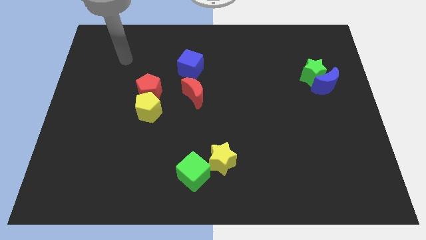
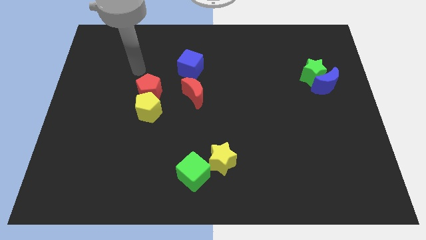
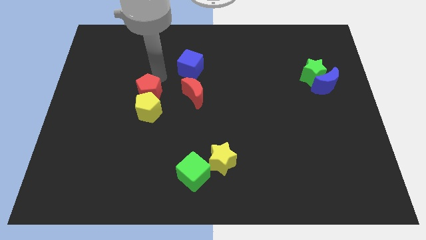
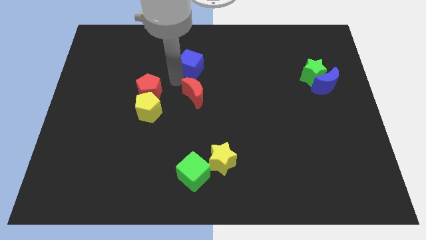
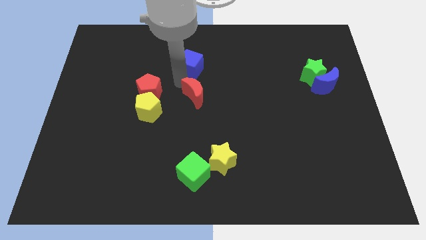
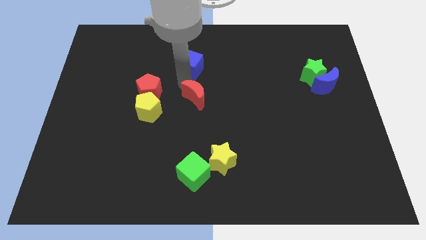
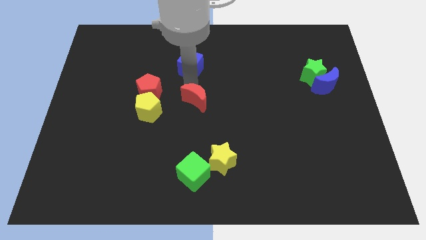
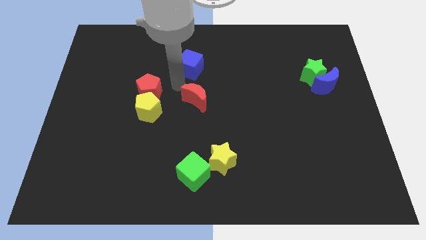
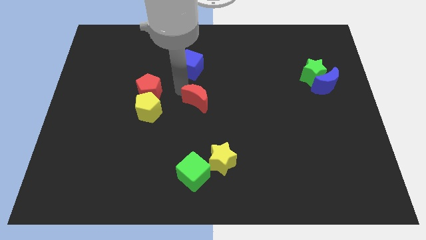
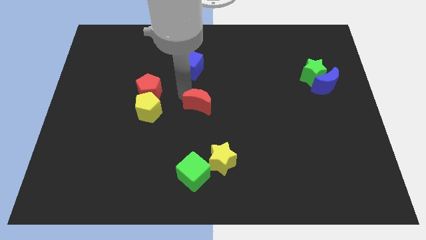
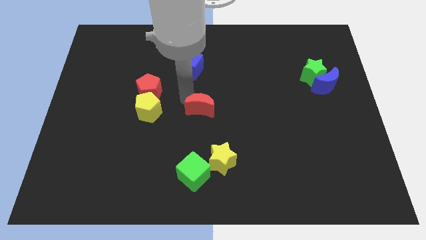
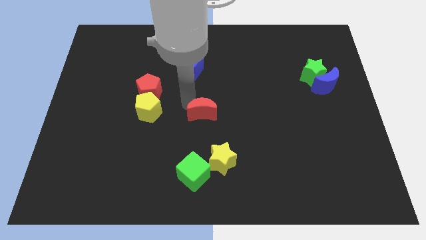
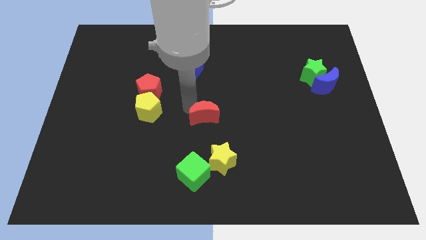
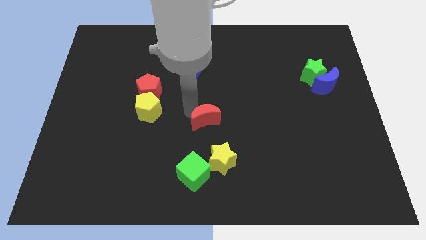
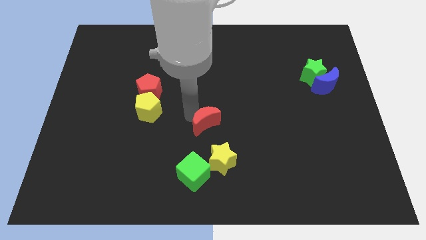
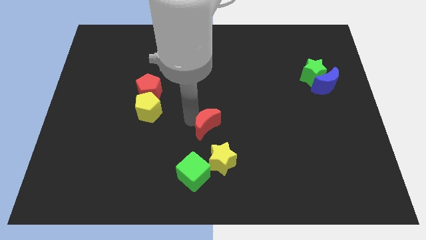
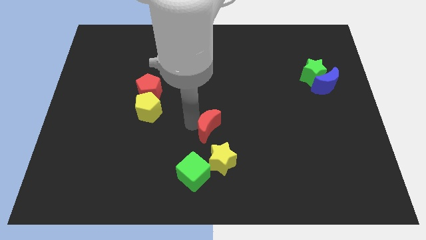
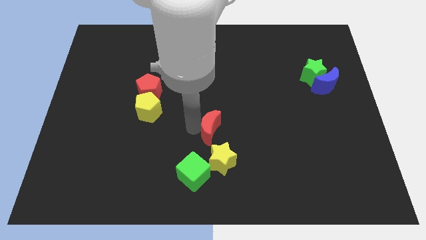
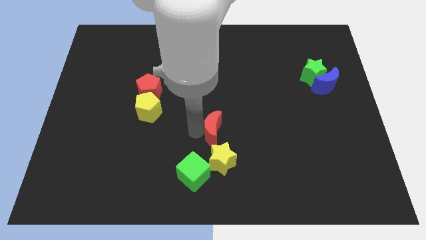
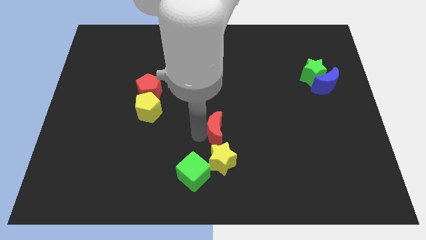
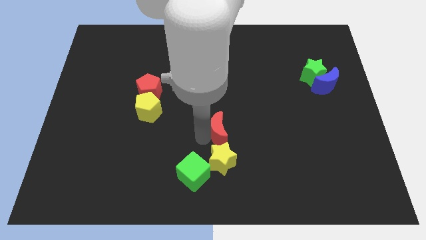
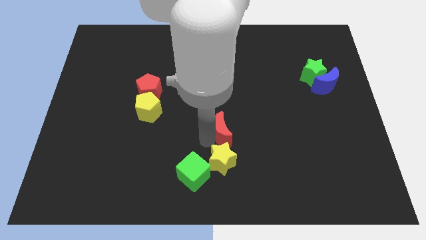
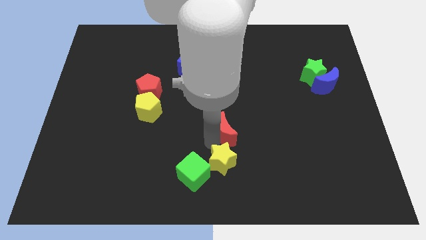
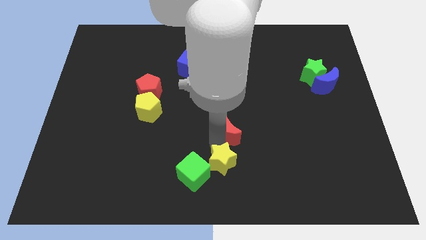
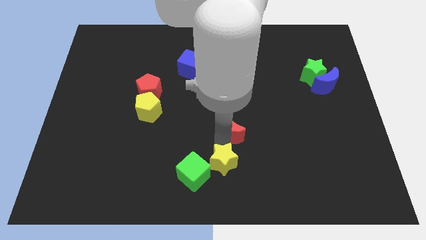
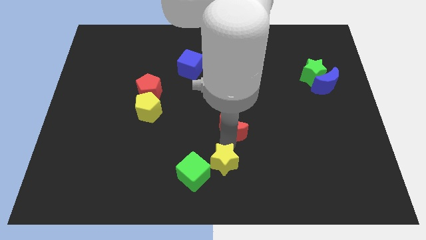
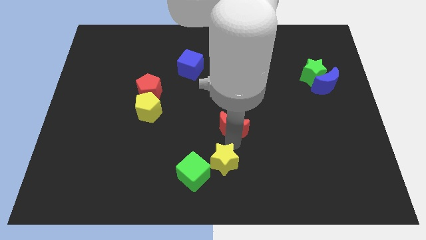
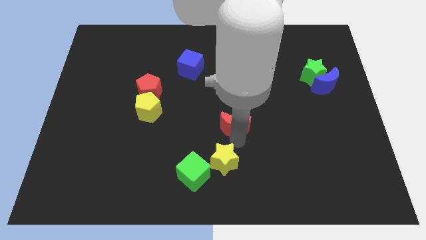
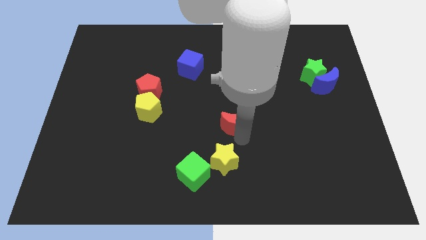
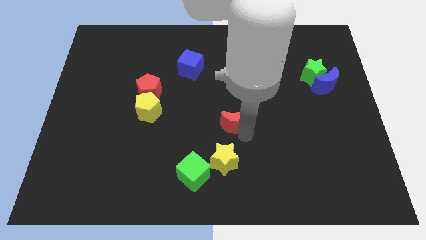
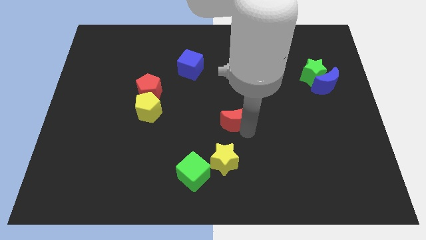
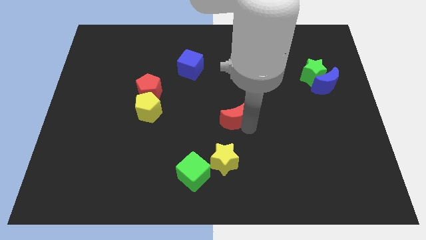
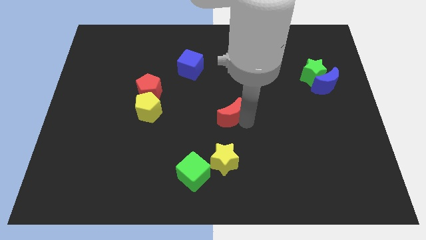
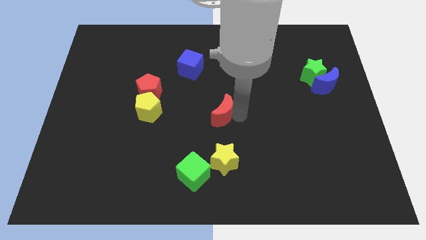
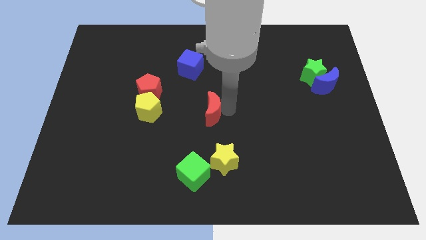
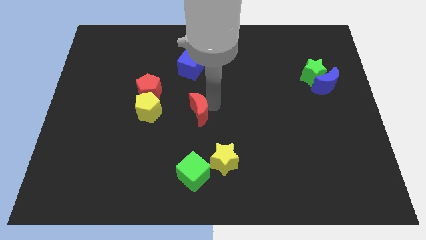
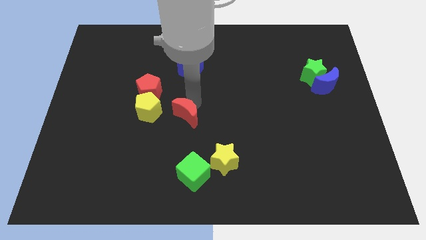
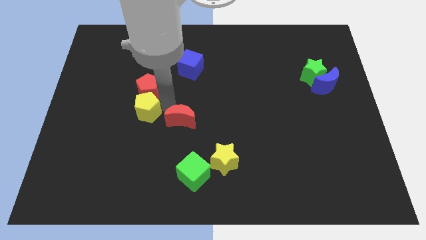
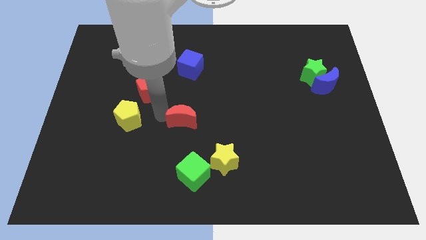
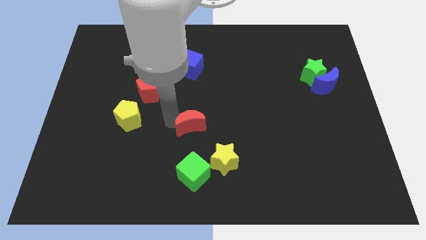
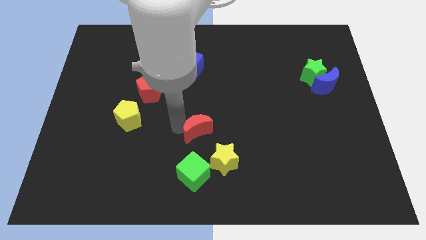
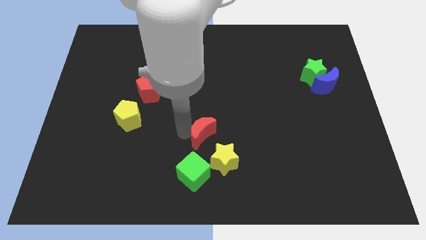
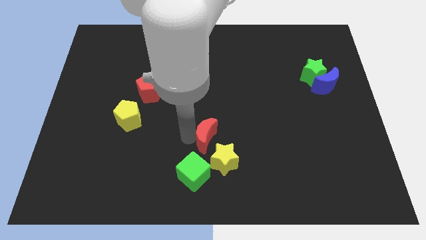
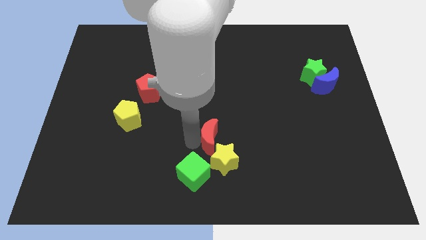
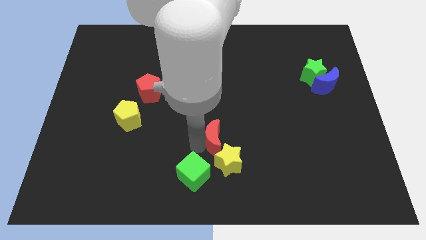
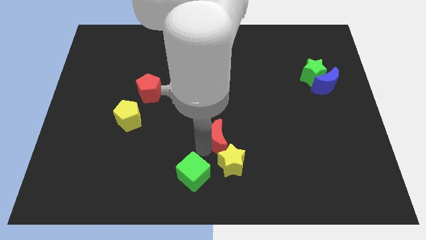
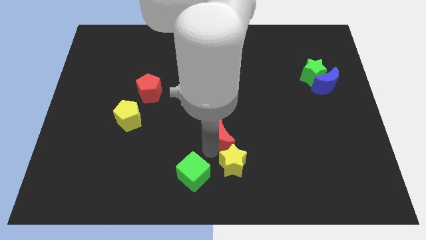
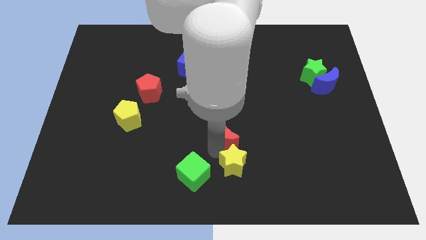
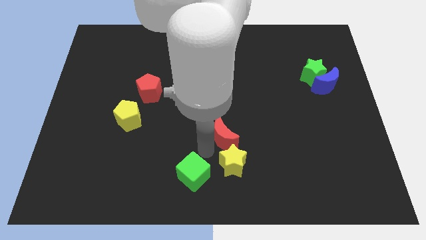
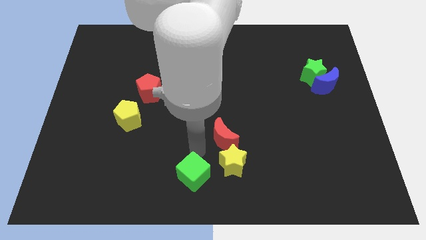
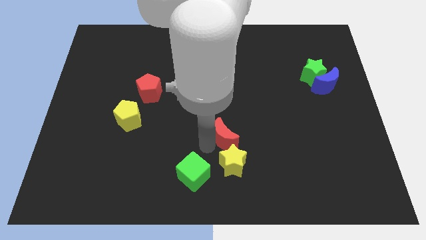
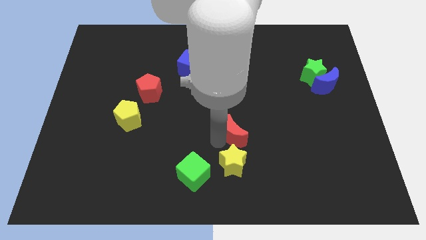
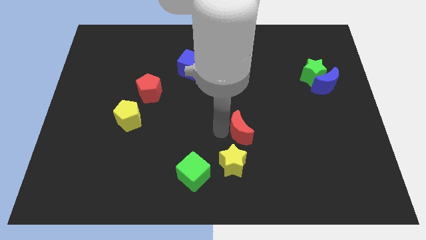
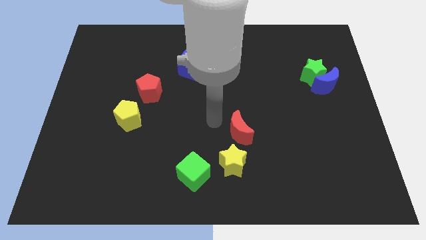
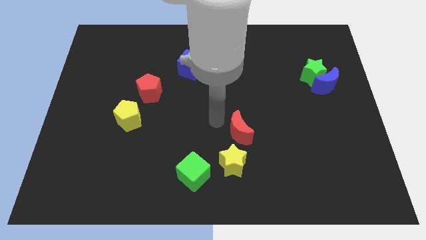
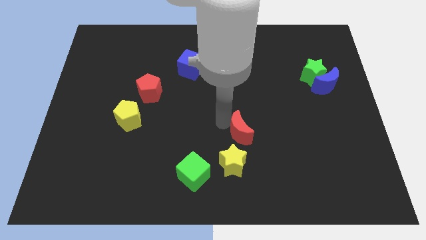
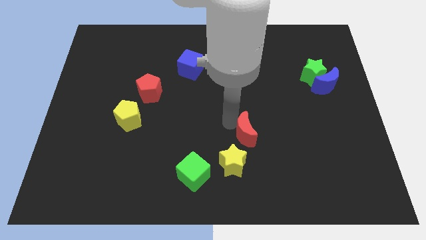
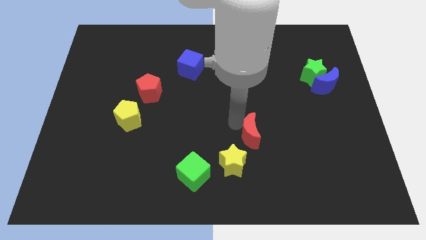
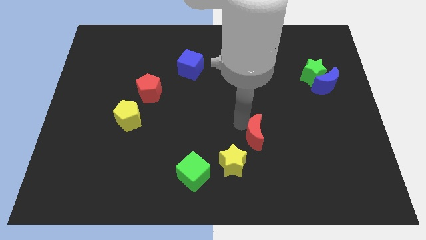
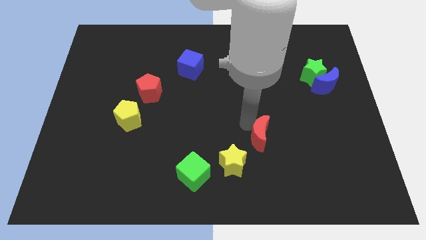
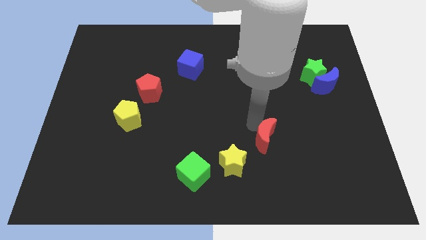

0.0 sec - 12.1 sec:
slide the red moon diagonally down and to the right

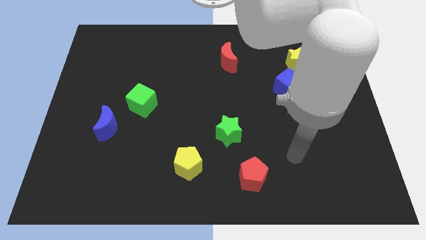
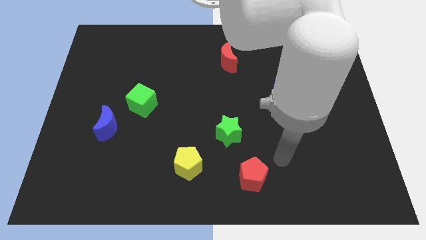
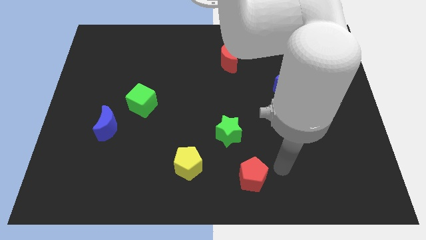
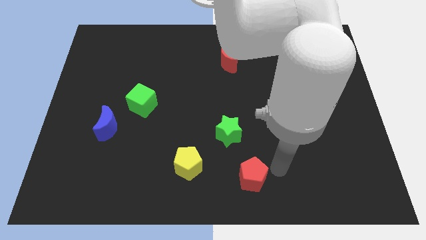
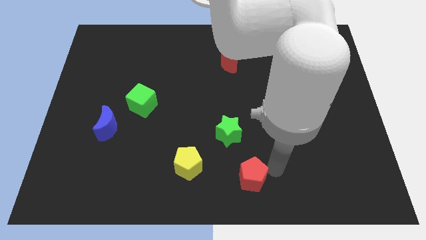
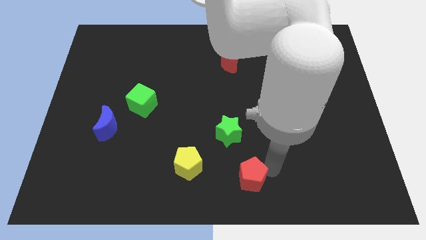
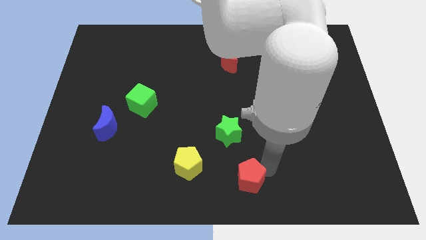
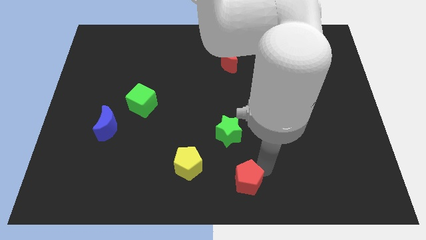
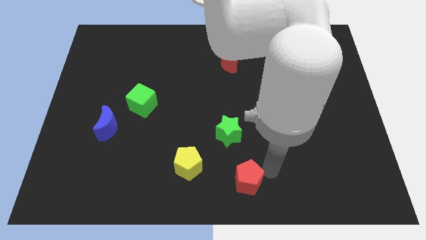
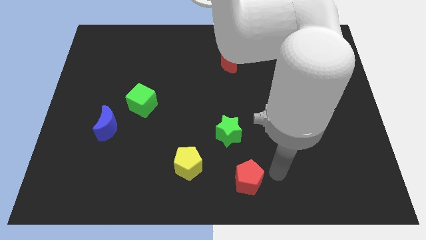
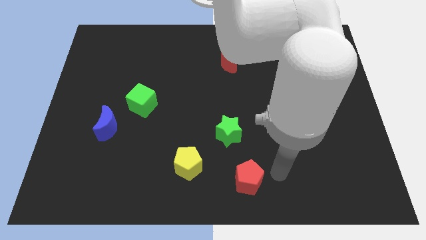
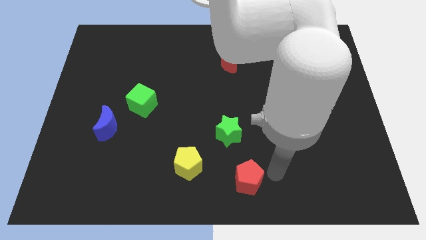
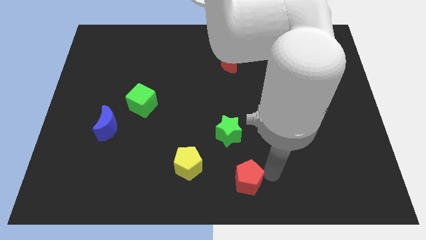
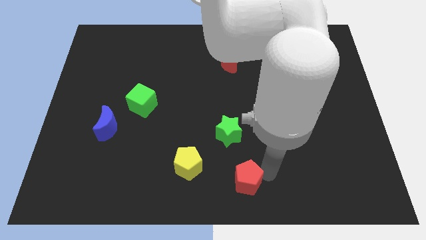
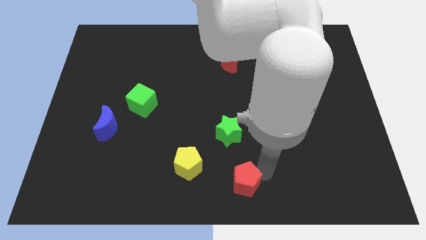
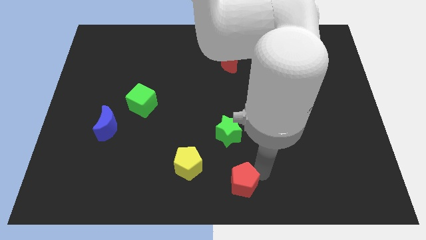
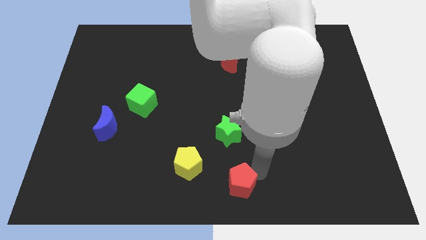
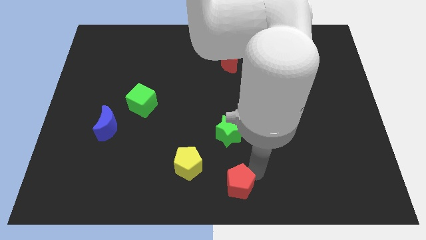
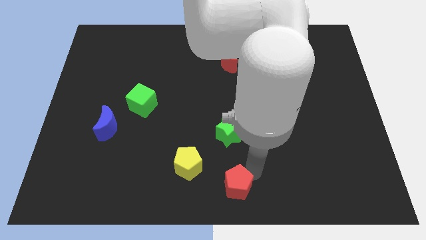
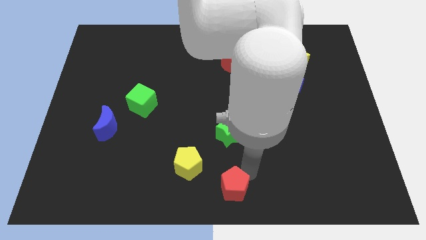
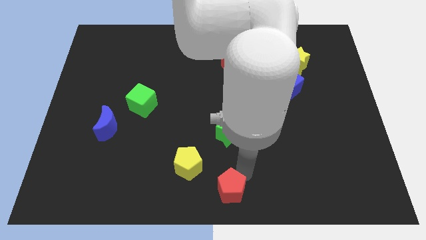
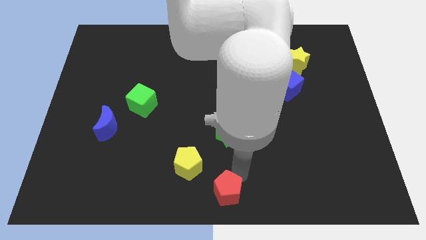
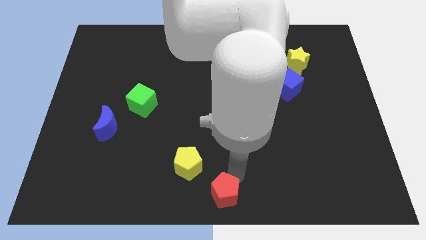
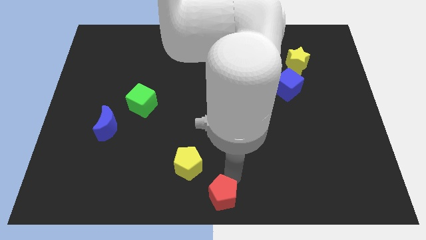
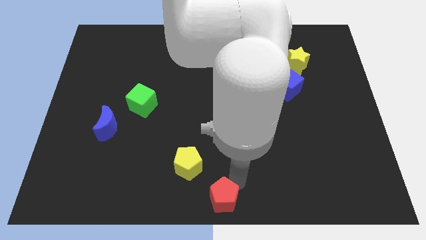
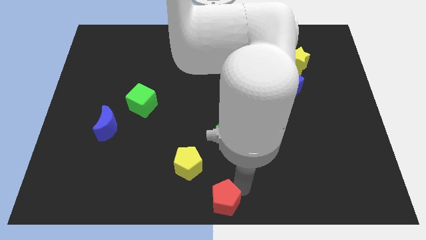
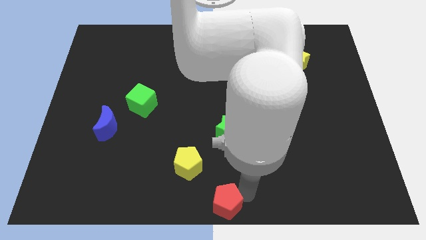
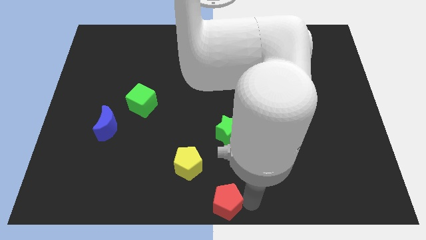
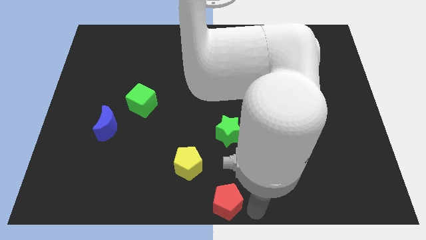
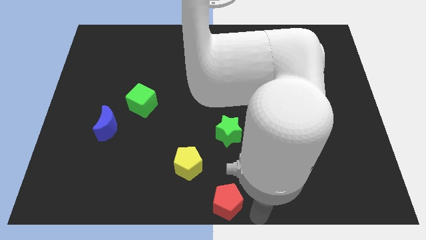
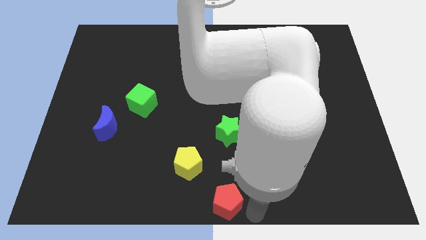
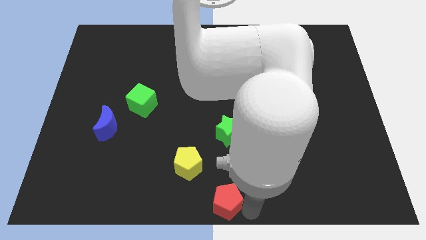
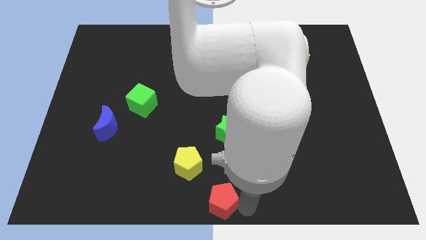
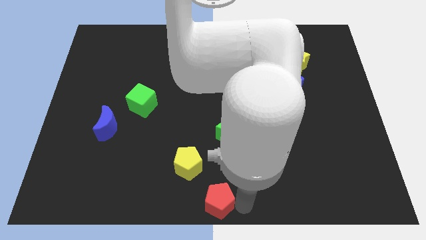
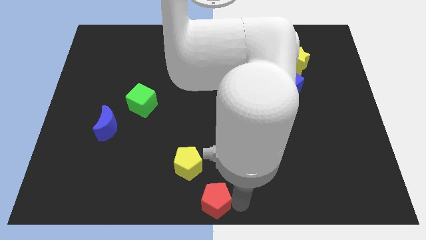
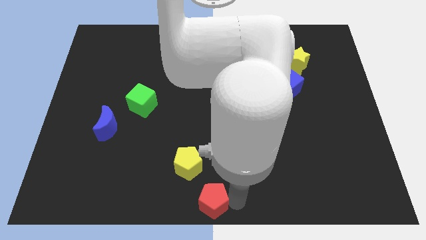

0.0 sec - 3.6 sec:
slightly slide the red pentagon to the left
